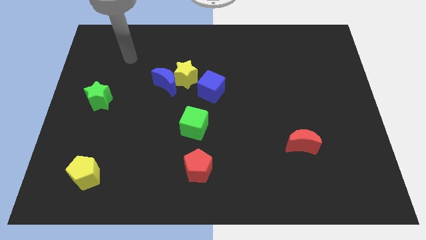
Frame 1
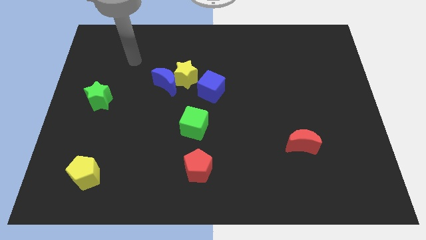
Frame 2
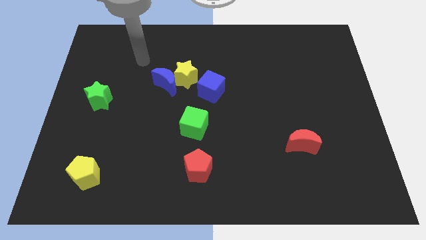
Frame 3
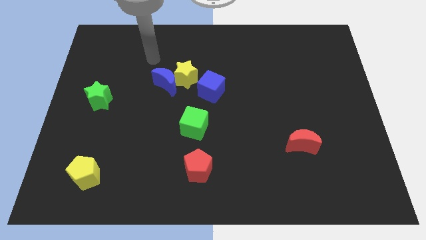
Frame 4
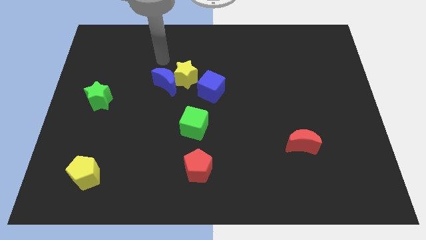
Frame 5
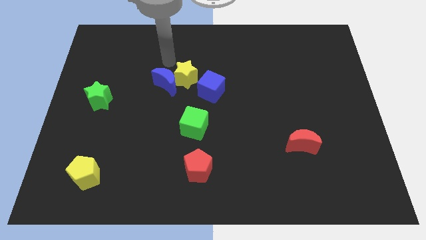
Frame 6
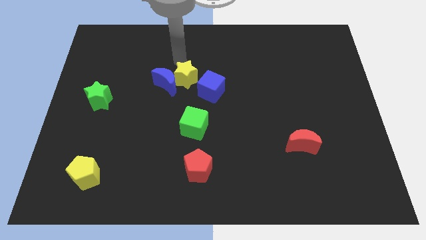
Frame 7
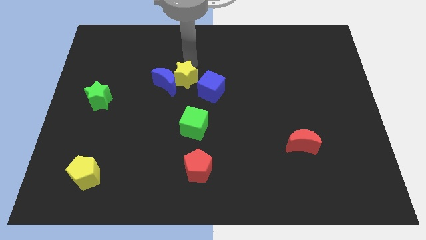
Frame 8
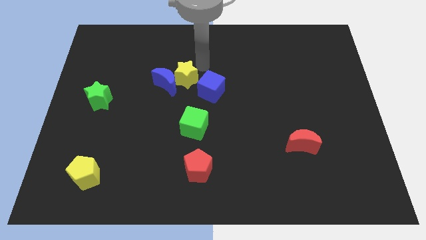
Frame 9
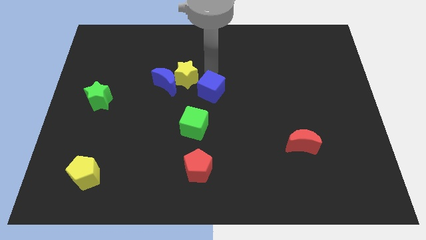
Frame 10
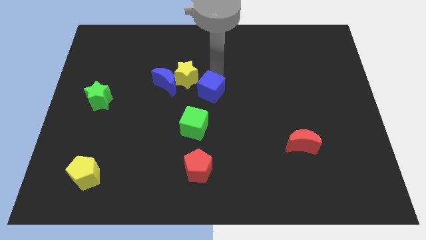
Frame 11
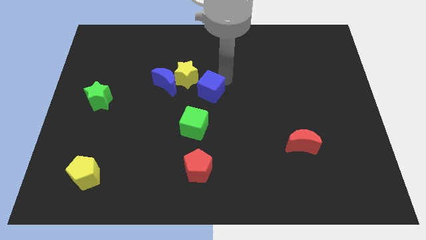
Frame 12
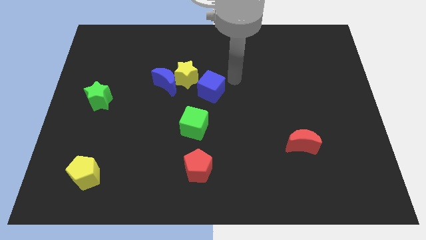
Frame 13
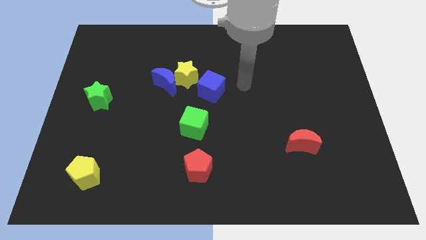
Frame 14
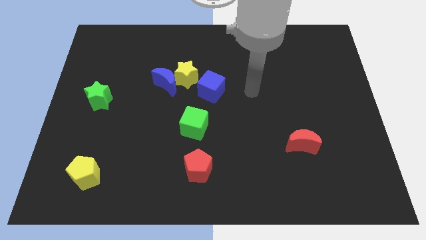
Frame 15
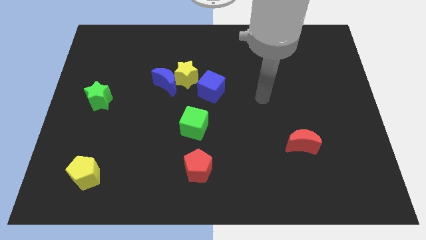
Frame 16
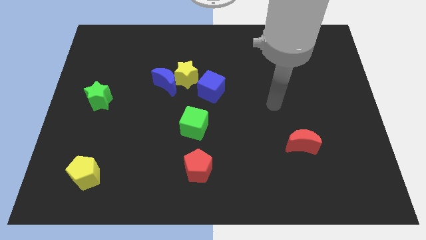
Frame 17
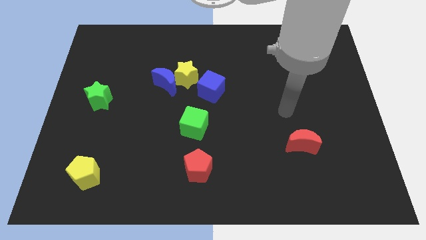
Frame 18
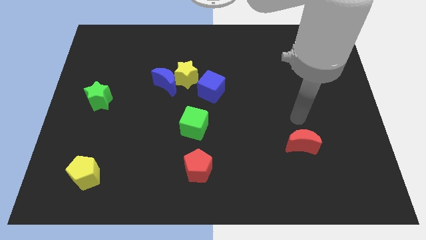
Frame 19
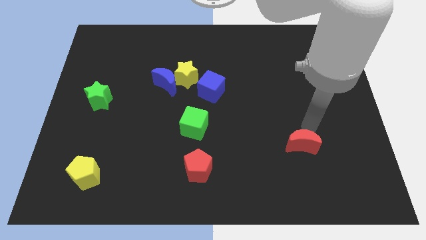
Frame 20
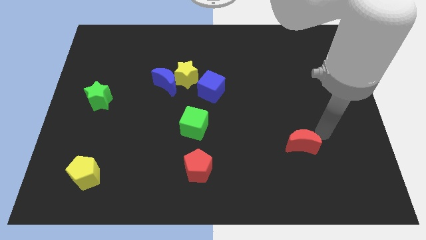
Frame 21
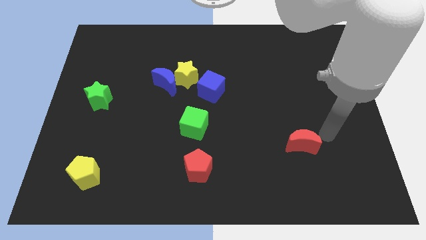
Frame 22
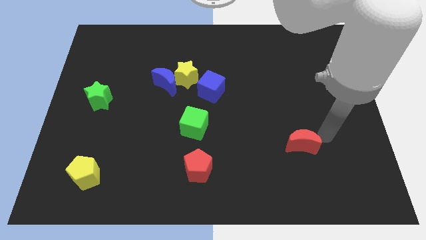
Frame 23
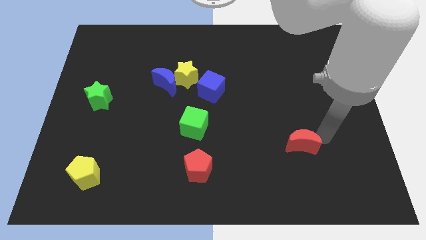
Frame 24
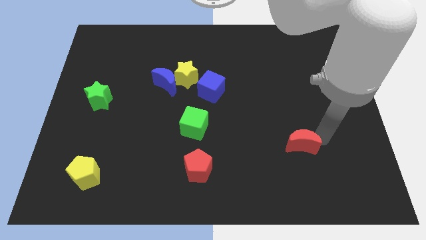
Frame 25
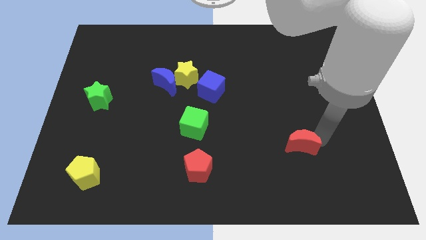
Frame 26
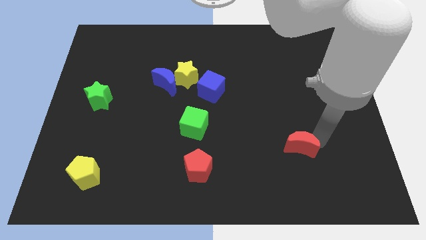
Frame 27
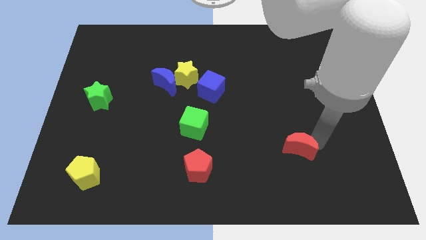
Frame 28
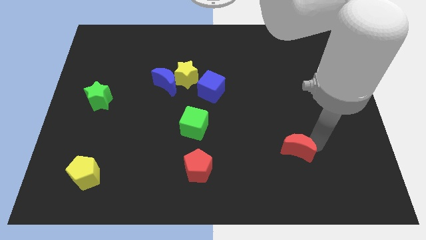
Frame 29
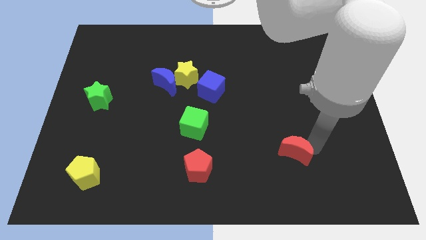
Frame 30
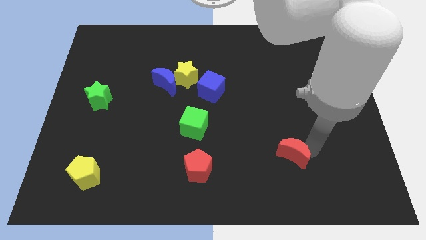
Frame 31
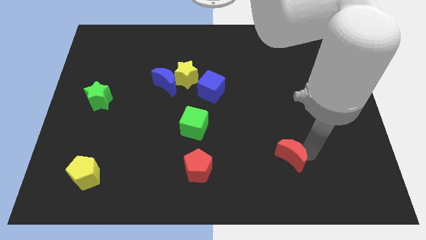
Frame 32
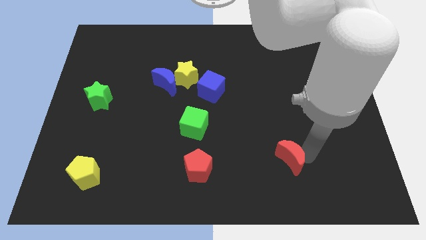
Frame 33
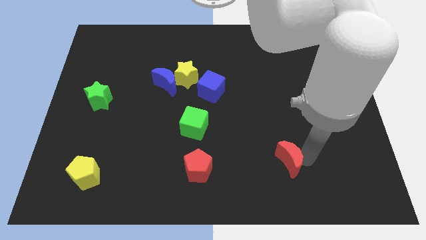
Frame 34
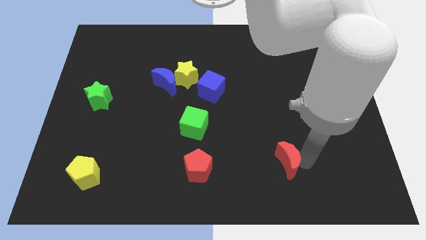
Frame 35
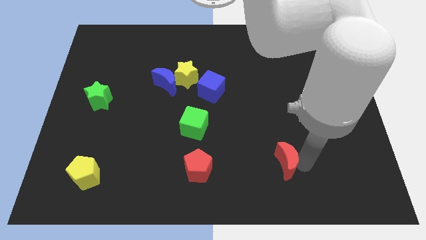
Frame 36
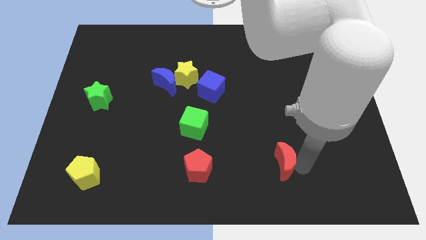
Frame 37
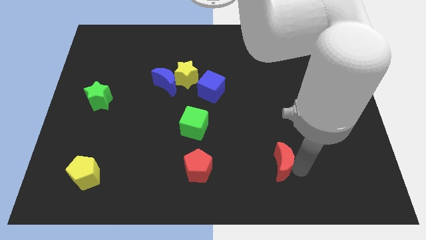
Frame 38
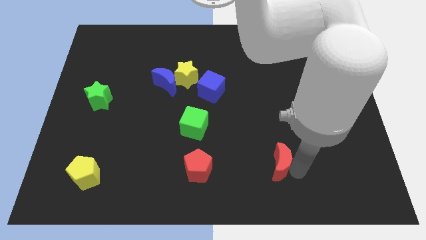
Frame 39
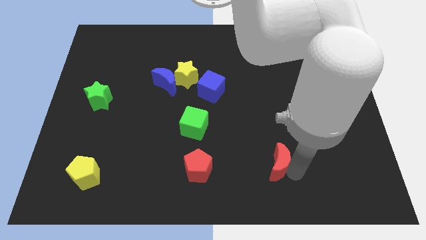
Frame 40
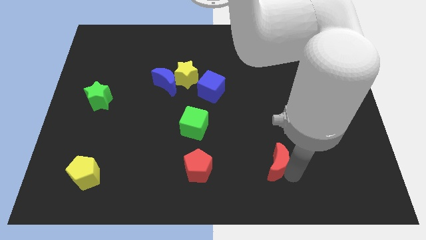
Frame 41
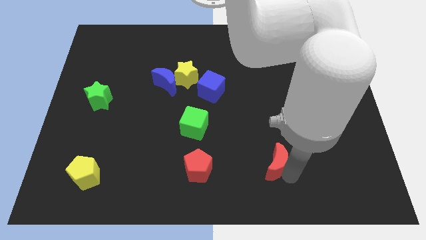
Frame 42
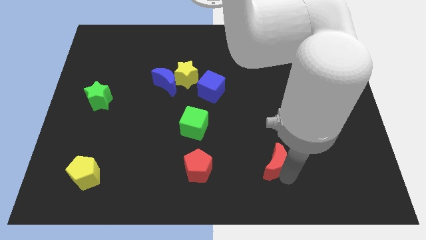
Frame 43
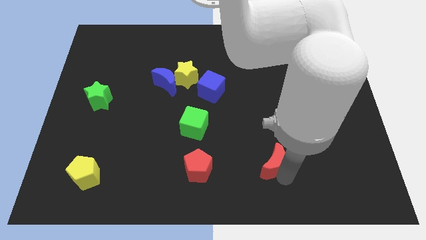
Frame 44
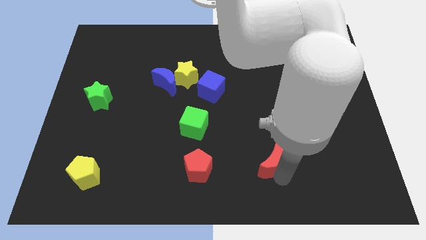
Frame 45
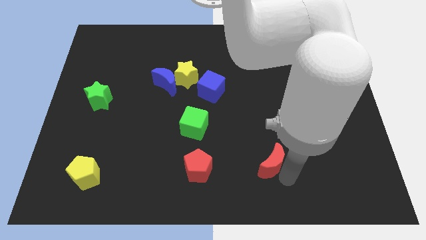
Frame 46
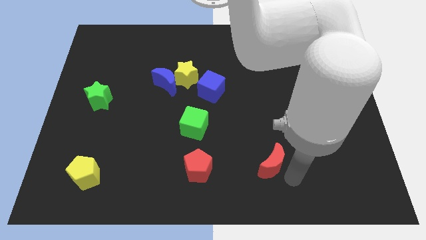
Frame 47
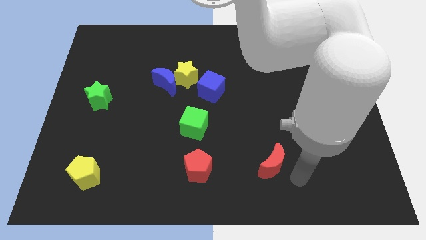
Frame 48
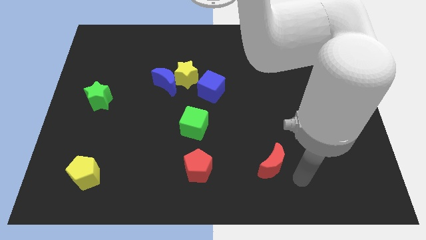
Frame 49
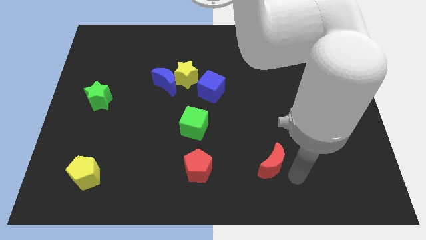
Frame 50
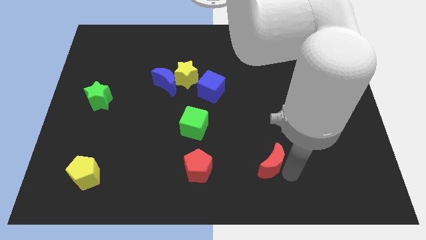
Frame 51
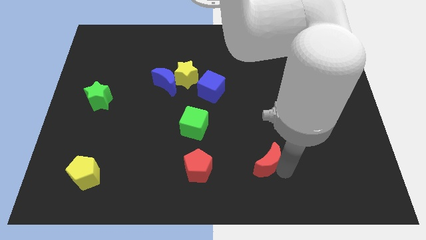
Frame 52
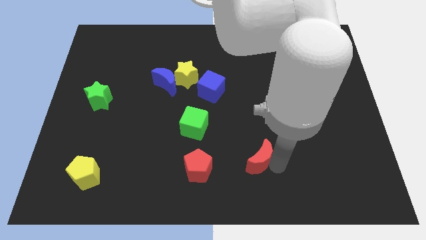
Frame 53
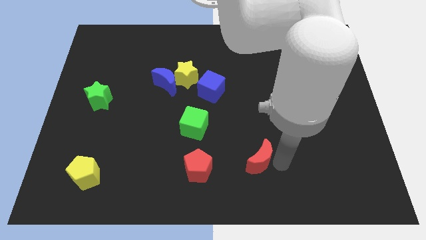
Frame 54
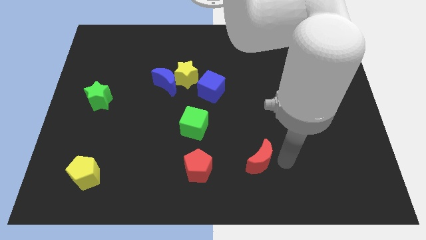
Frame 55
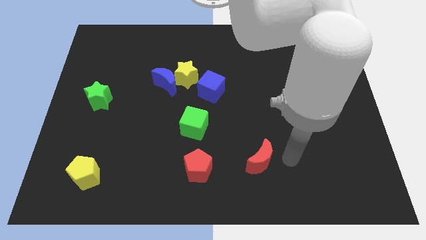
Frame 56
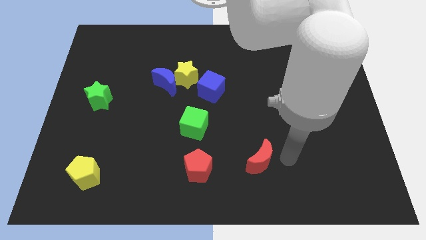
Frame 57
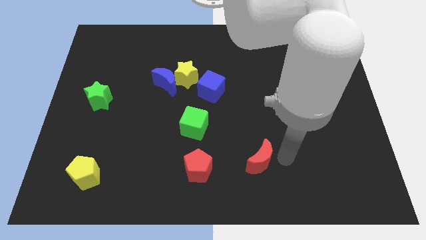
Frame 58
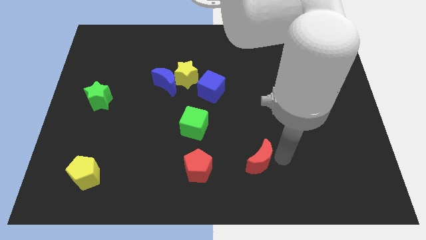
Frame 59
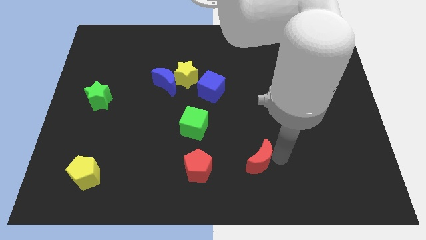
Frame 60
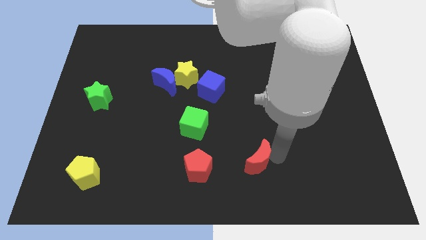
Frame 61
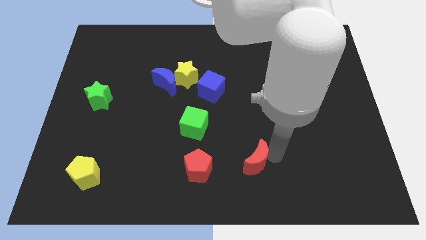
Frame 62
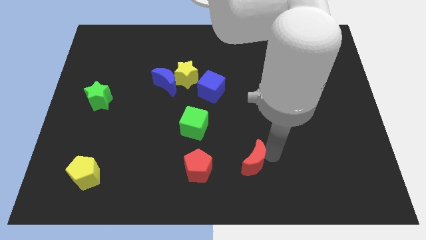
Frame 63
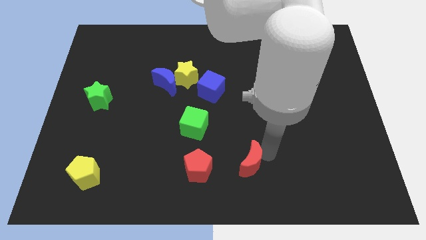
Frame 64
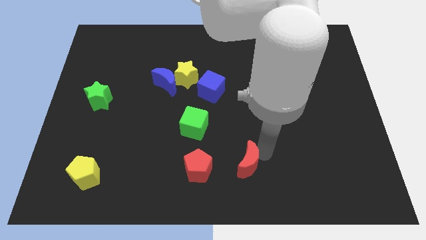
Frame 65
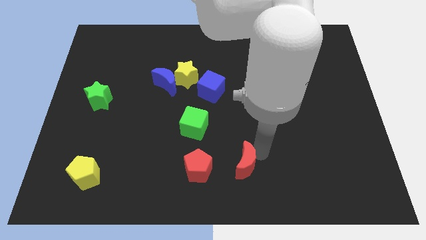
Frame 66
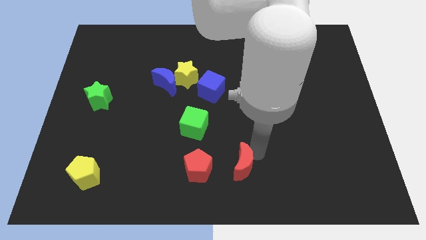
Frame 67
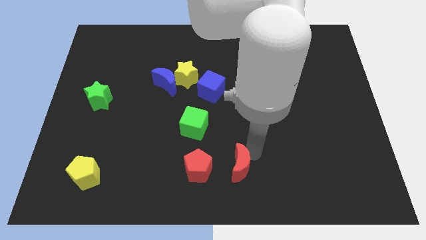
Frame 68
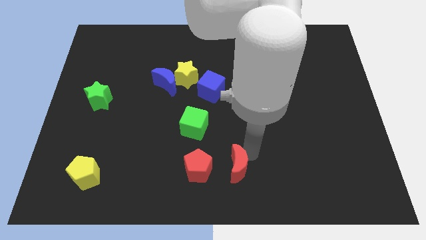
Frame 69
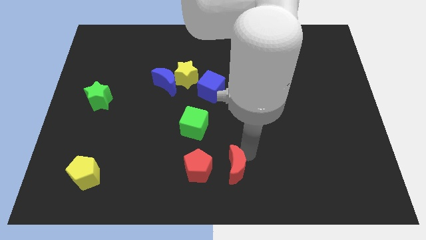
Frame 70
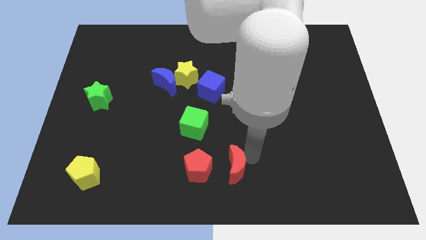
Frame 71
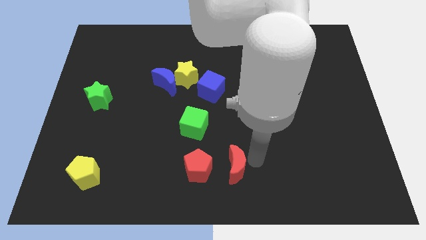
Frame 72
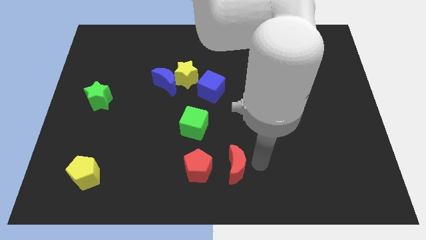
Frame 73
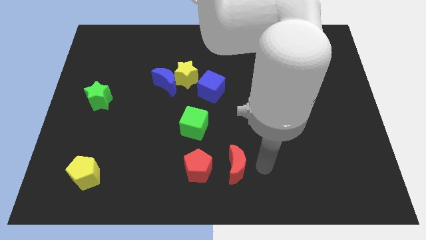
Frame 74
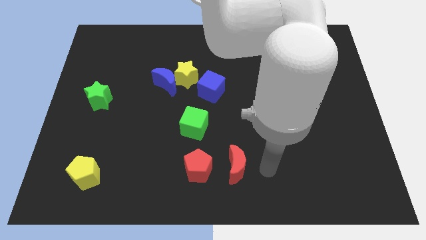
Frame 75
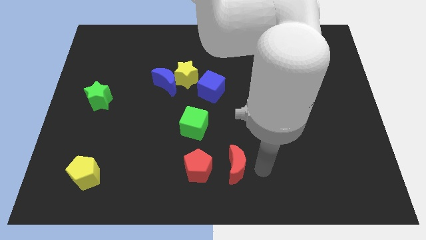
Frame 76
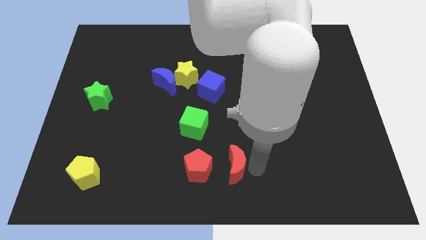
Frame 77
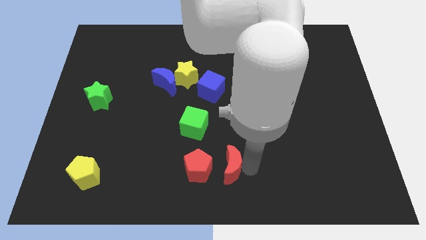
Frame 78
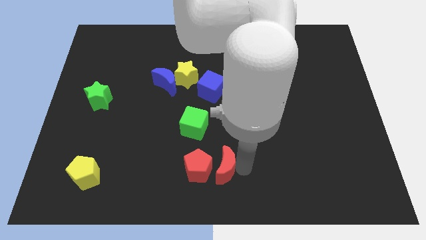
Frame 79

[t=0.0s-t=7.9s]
slide the red moon close to the red pentagon
